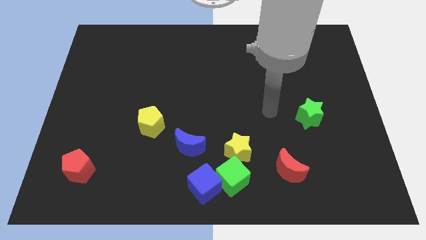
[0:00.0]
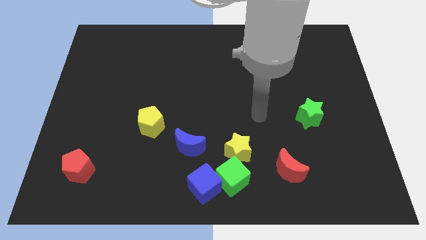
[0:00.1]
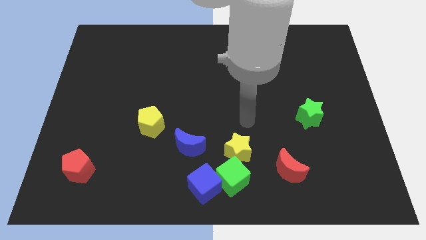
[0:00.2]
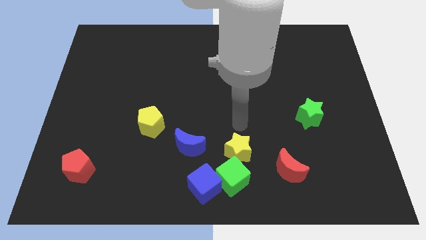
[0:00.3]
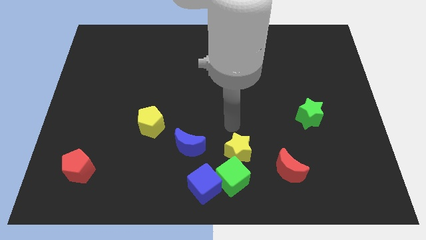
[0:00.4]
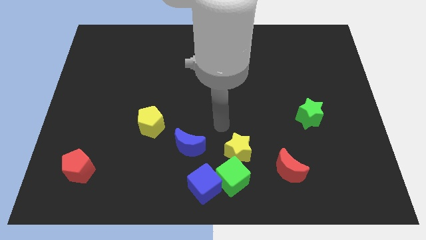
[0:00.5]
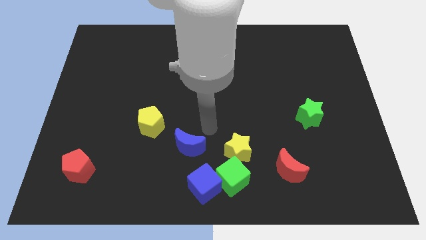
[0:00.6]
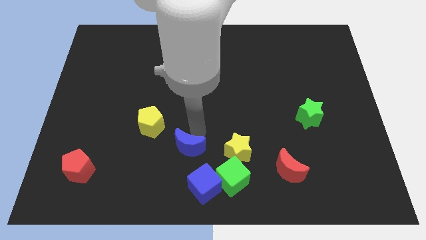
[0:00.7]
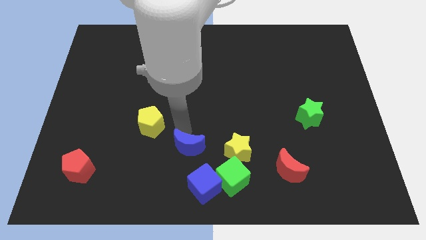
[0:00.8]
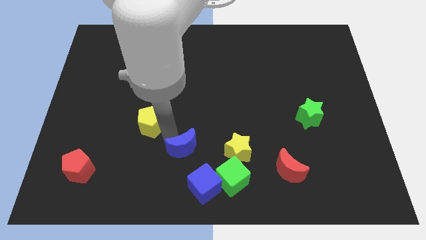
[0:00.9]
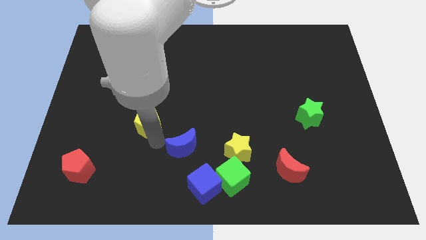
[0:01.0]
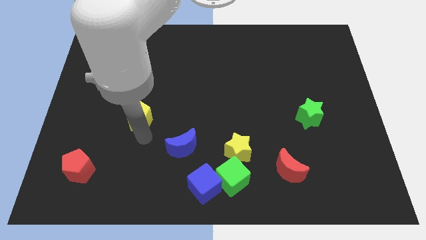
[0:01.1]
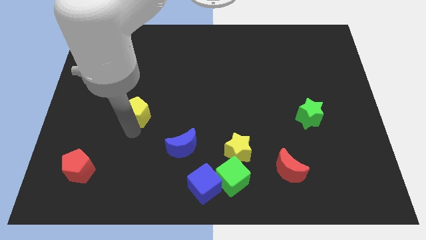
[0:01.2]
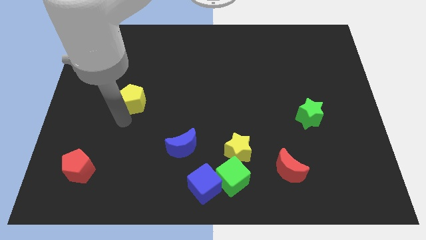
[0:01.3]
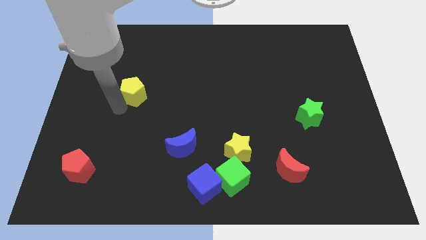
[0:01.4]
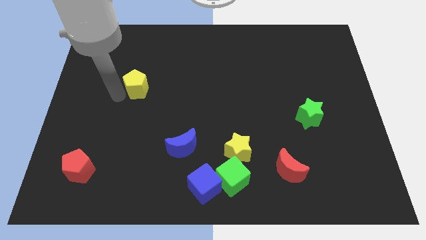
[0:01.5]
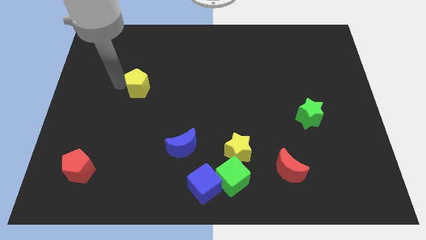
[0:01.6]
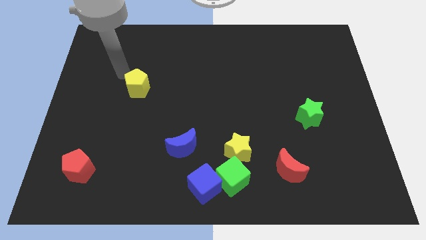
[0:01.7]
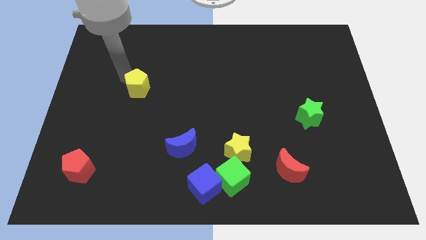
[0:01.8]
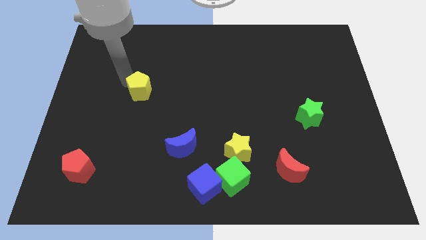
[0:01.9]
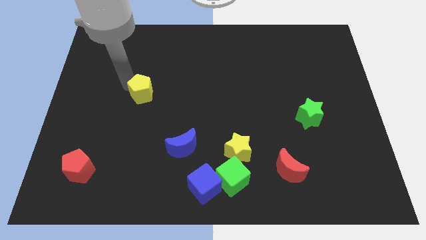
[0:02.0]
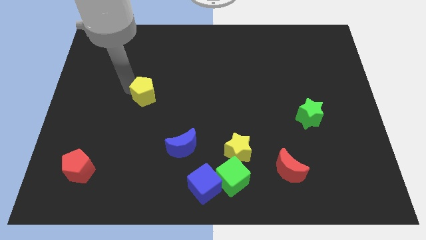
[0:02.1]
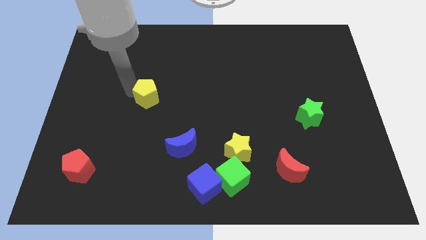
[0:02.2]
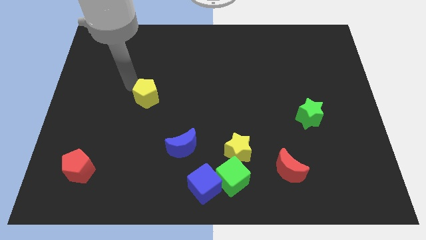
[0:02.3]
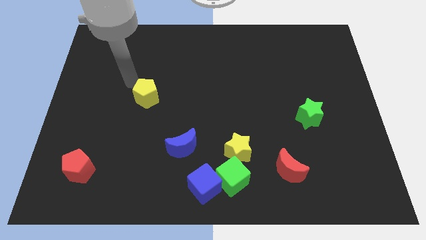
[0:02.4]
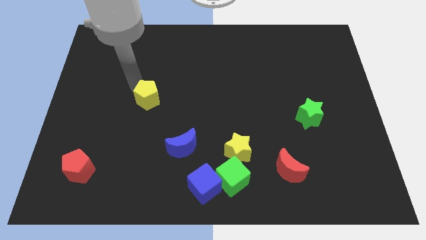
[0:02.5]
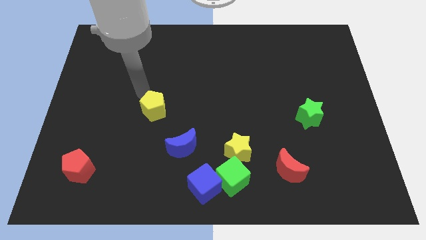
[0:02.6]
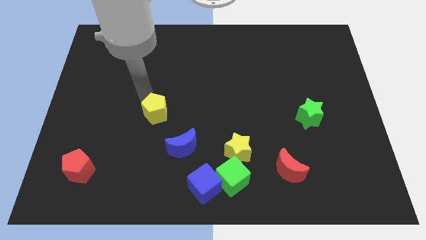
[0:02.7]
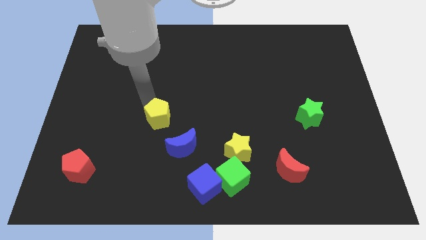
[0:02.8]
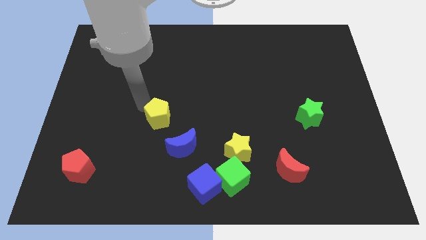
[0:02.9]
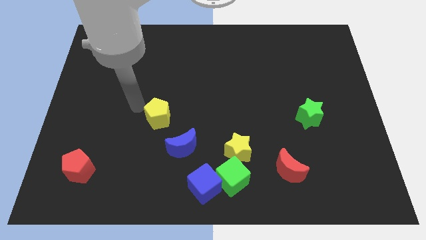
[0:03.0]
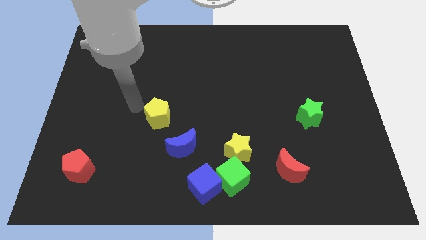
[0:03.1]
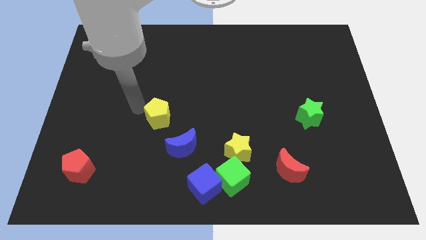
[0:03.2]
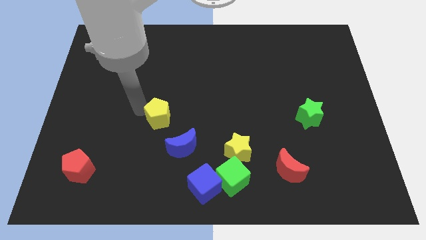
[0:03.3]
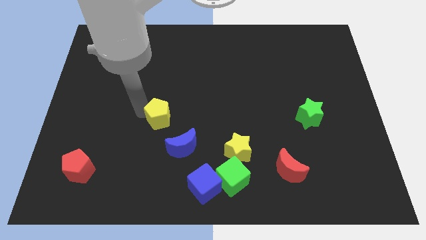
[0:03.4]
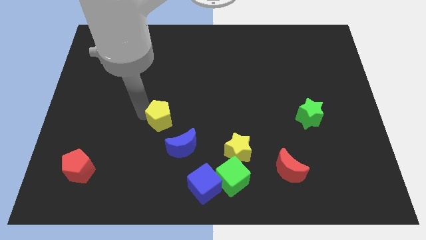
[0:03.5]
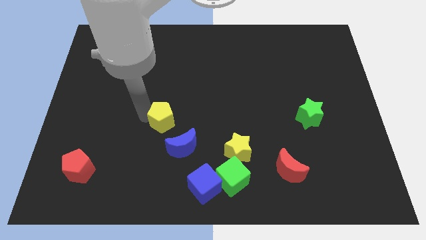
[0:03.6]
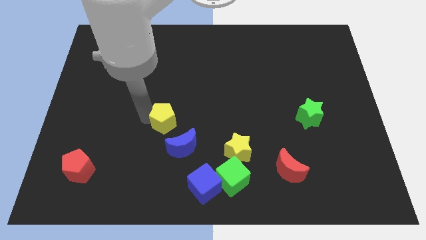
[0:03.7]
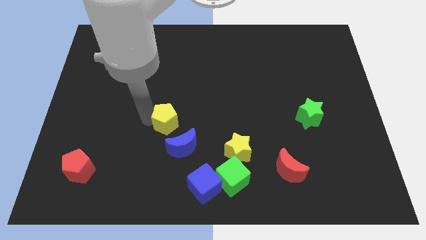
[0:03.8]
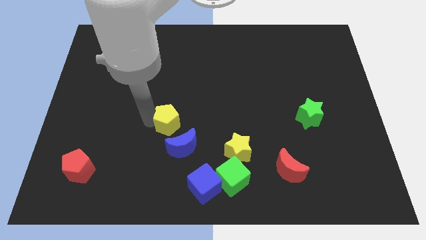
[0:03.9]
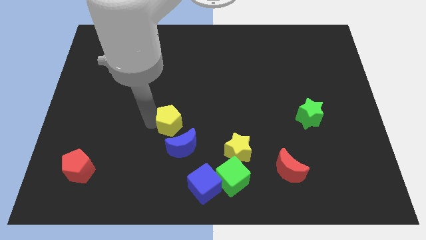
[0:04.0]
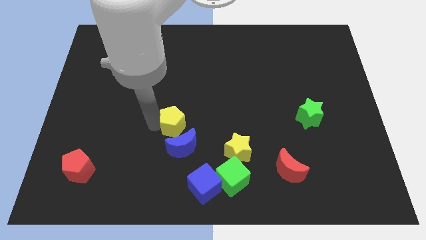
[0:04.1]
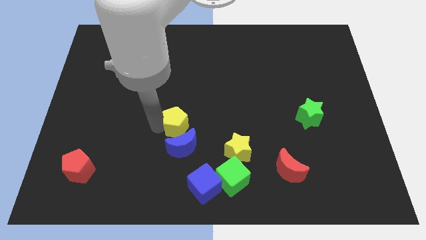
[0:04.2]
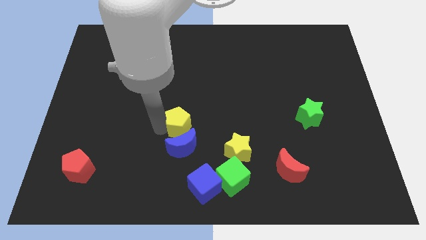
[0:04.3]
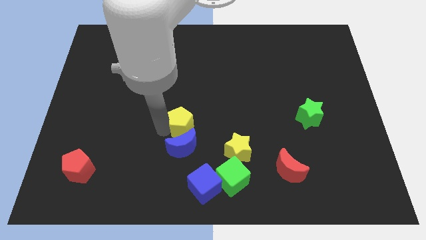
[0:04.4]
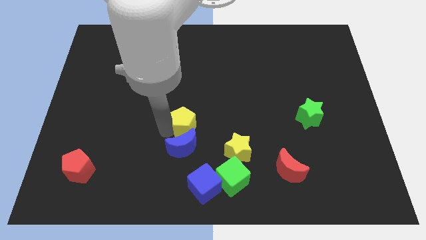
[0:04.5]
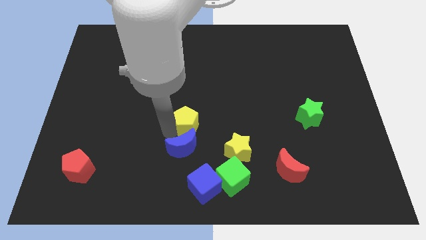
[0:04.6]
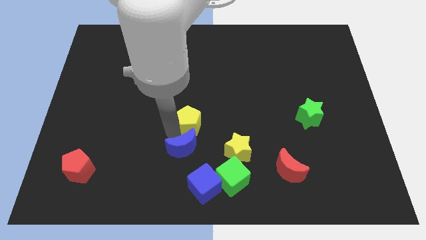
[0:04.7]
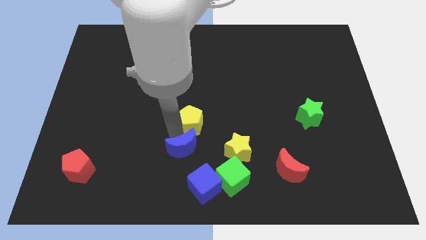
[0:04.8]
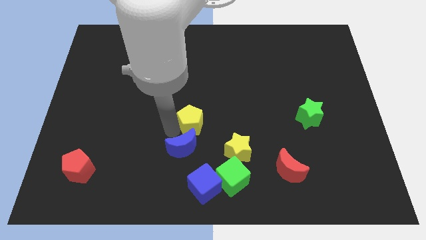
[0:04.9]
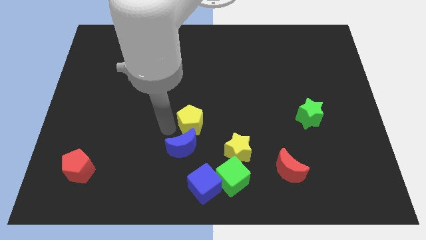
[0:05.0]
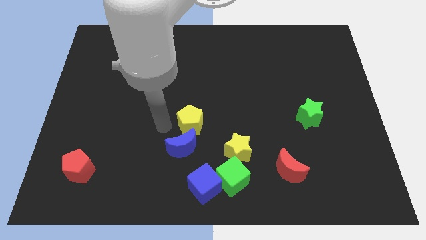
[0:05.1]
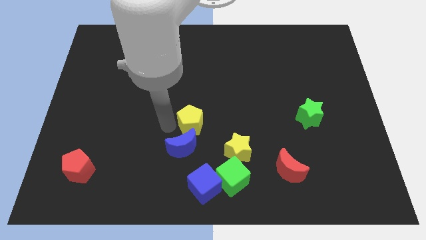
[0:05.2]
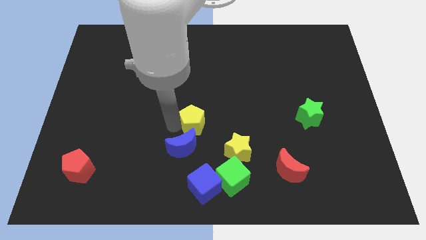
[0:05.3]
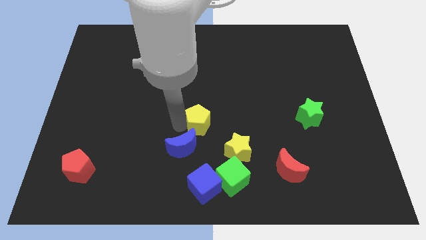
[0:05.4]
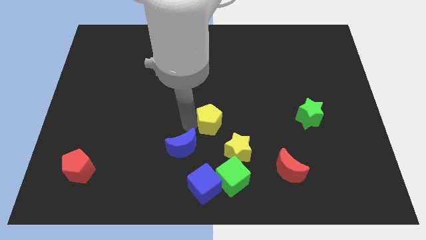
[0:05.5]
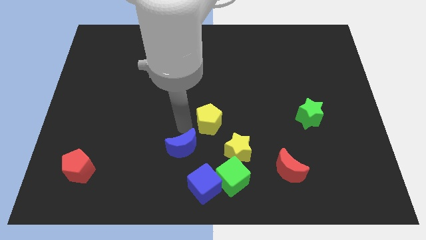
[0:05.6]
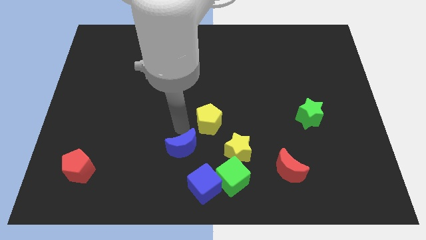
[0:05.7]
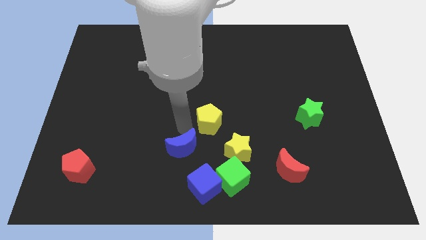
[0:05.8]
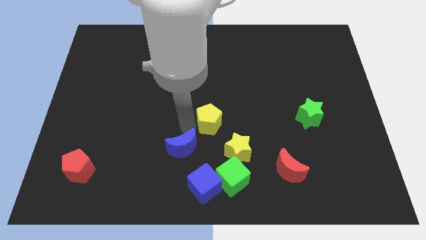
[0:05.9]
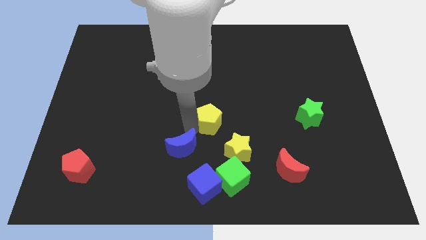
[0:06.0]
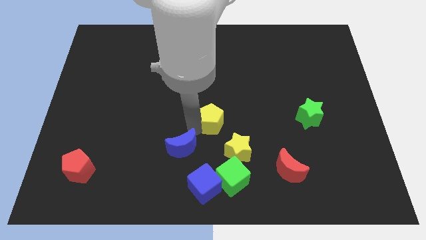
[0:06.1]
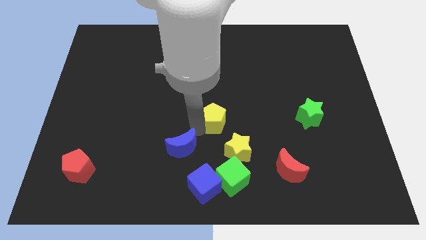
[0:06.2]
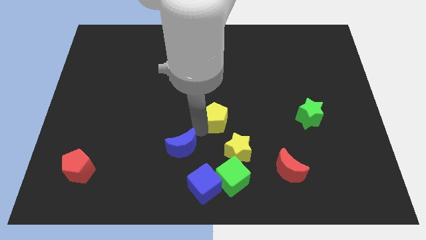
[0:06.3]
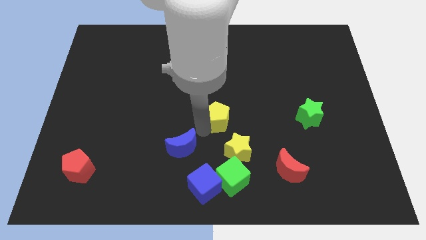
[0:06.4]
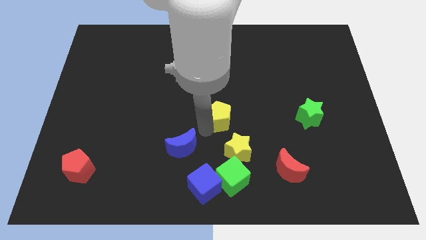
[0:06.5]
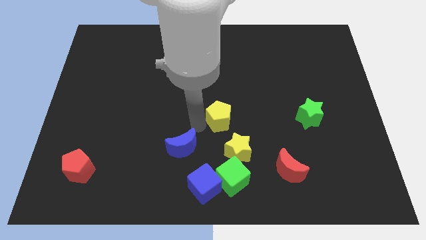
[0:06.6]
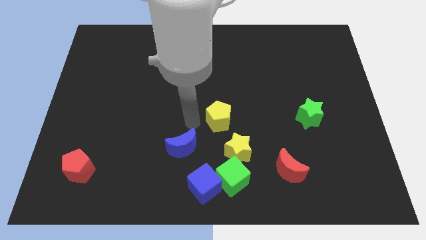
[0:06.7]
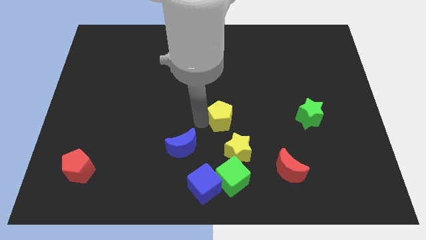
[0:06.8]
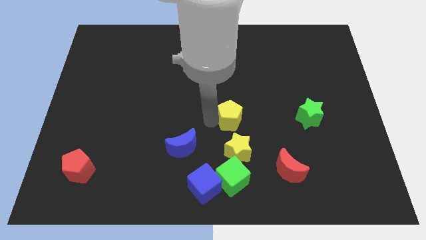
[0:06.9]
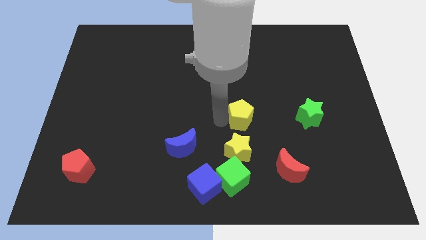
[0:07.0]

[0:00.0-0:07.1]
move the yellow pentagon left of the green star
